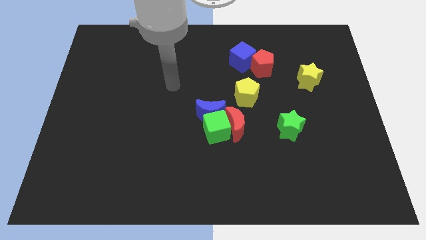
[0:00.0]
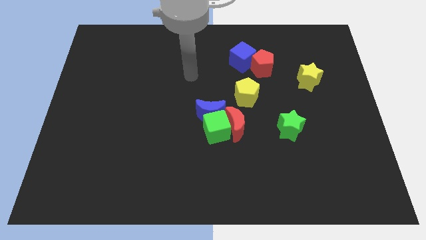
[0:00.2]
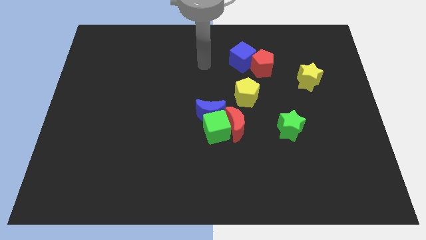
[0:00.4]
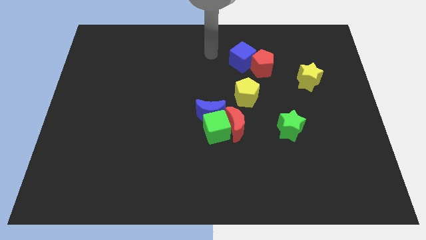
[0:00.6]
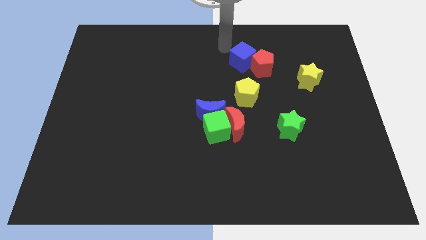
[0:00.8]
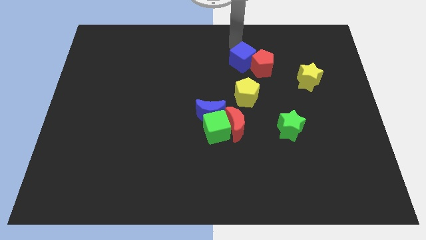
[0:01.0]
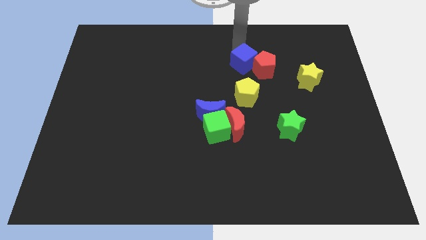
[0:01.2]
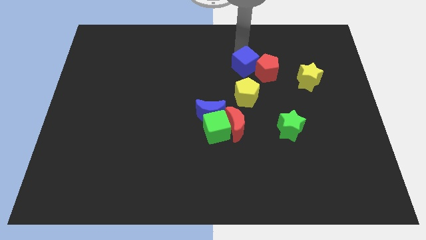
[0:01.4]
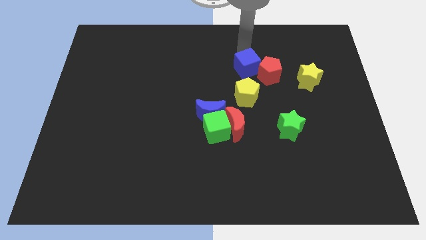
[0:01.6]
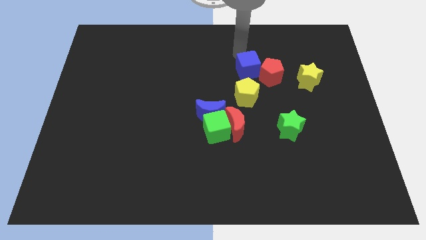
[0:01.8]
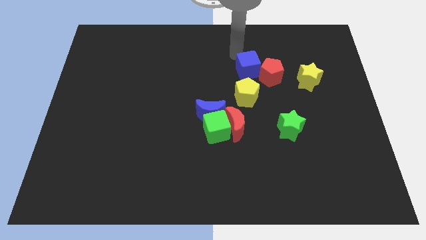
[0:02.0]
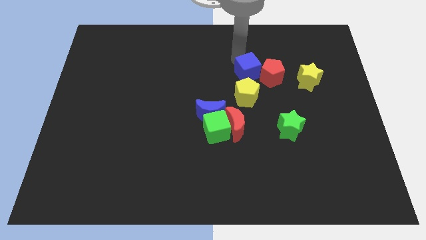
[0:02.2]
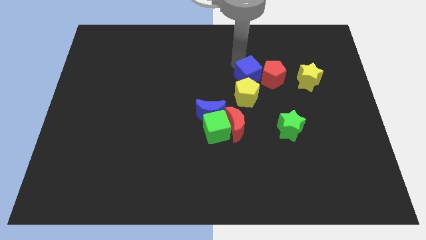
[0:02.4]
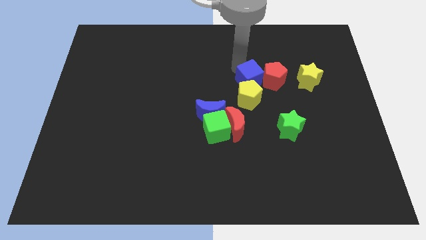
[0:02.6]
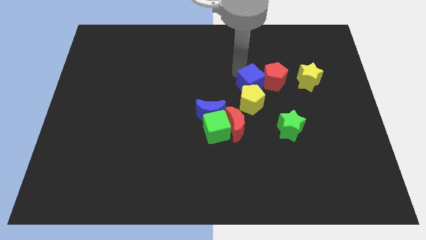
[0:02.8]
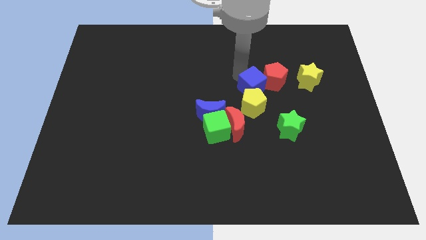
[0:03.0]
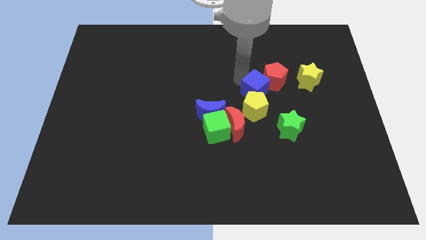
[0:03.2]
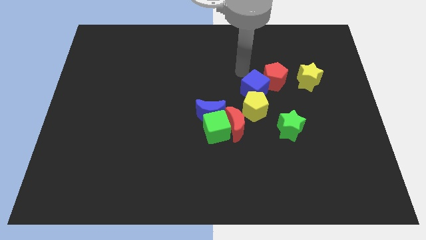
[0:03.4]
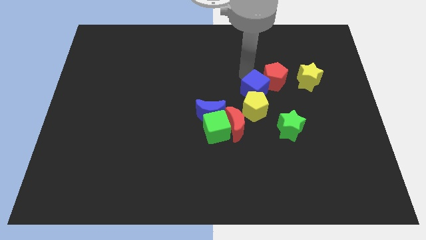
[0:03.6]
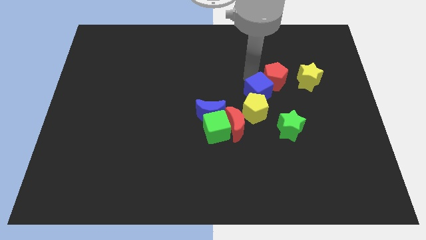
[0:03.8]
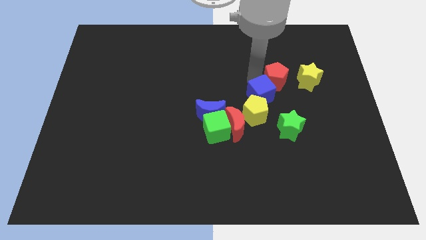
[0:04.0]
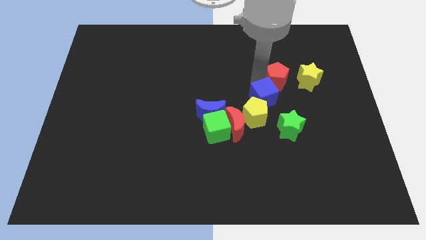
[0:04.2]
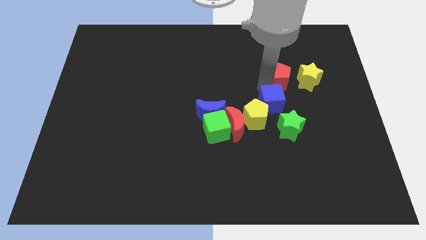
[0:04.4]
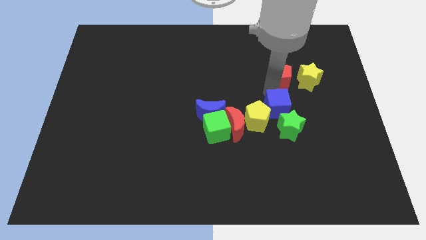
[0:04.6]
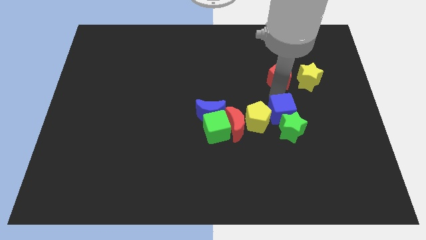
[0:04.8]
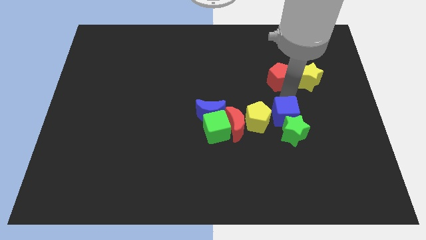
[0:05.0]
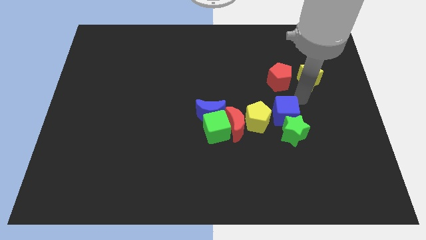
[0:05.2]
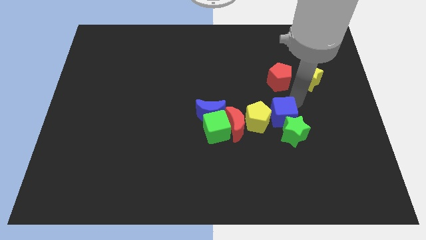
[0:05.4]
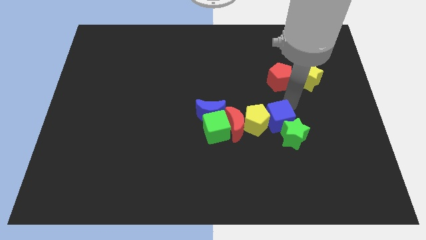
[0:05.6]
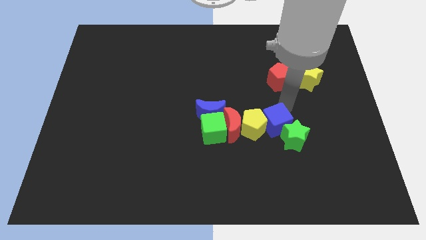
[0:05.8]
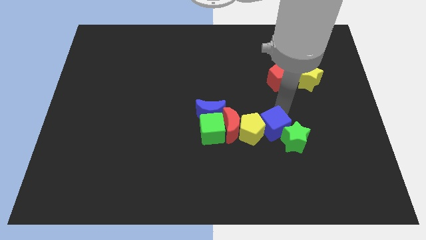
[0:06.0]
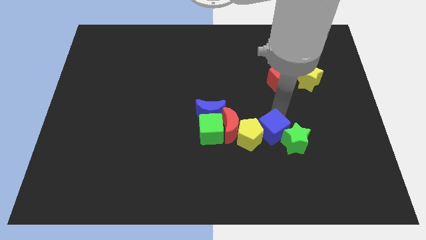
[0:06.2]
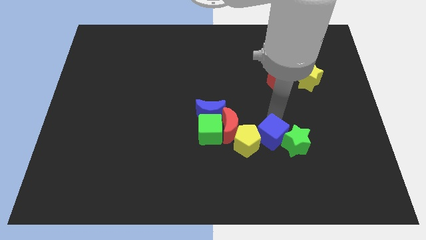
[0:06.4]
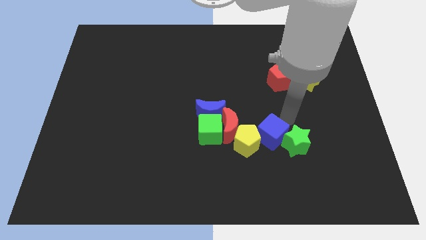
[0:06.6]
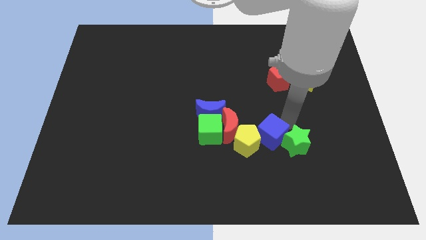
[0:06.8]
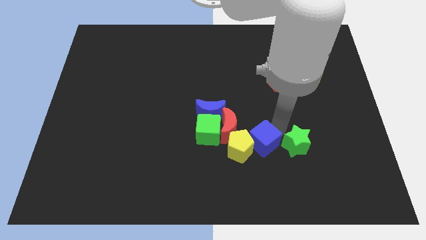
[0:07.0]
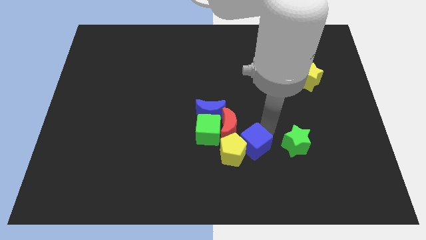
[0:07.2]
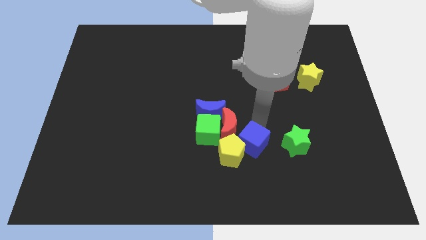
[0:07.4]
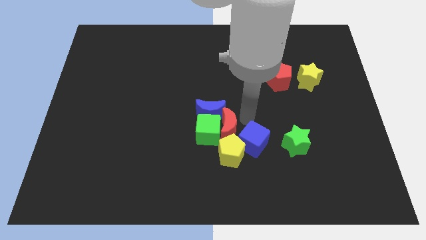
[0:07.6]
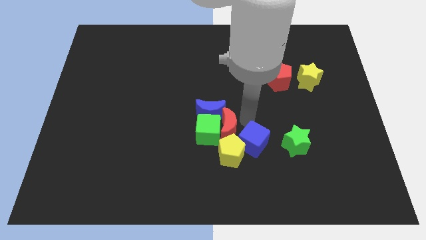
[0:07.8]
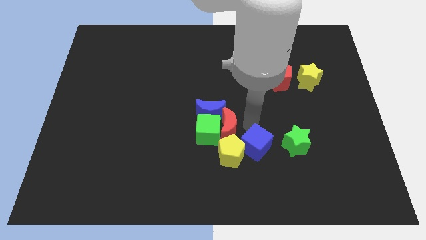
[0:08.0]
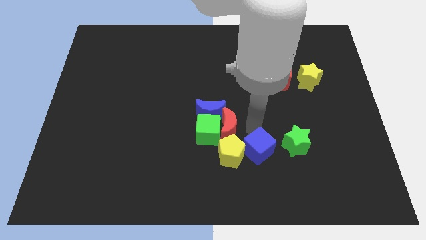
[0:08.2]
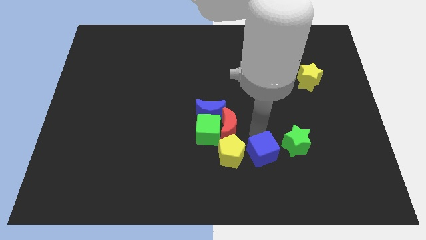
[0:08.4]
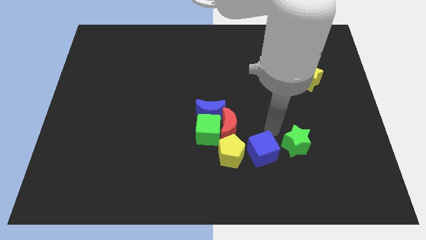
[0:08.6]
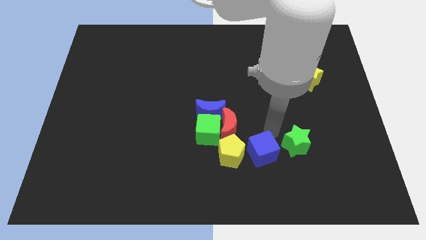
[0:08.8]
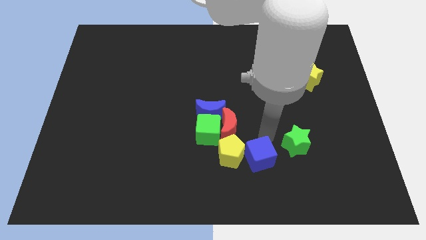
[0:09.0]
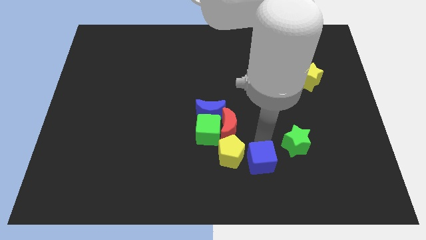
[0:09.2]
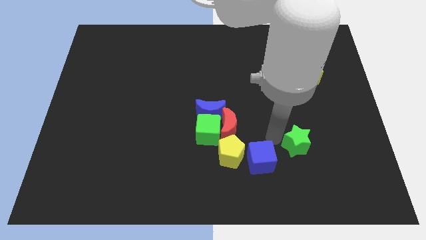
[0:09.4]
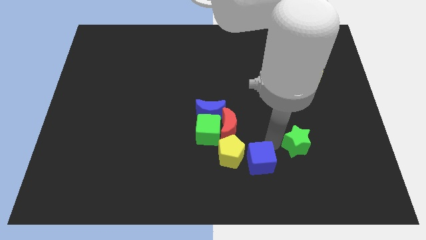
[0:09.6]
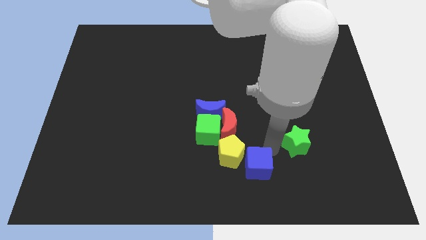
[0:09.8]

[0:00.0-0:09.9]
move the blue cube to the bottom

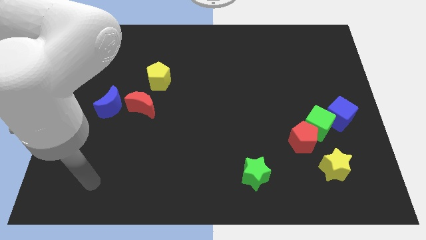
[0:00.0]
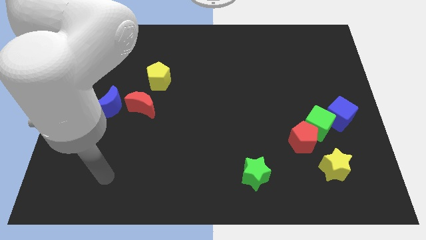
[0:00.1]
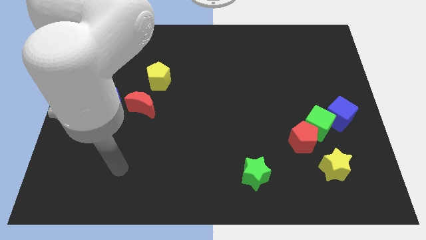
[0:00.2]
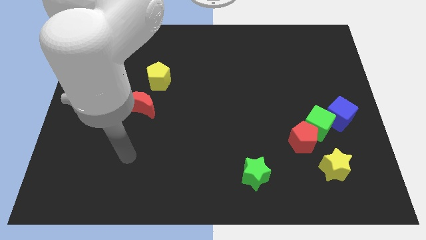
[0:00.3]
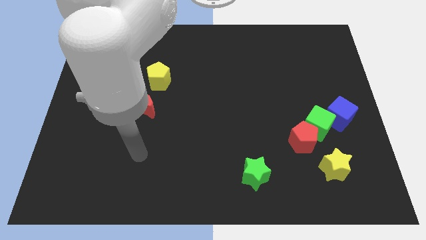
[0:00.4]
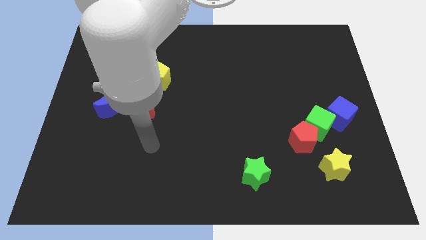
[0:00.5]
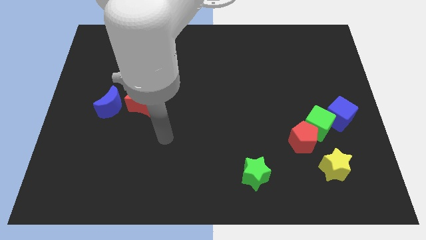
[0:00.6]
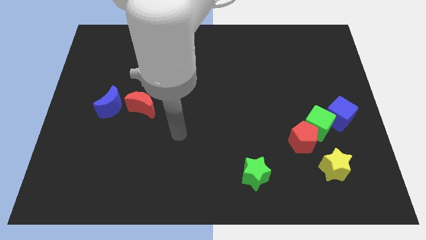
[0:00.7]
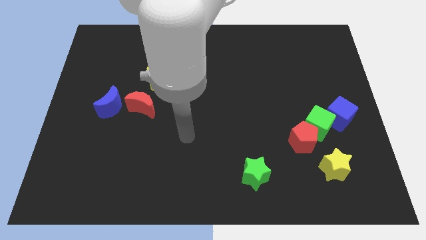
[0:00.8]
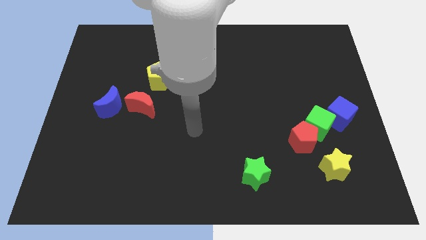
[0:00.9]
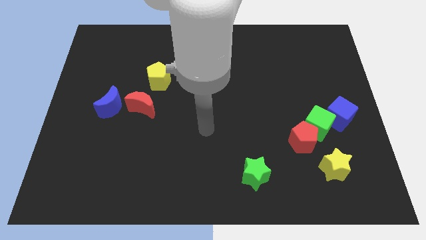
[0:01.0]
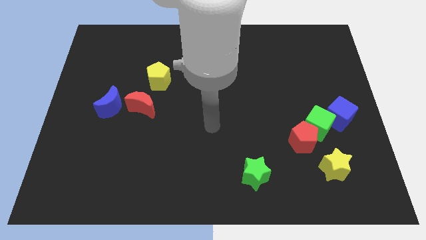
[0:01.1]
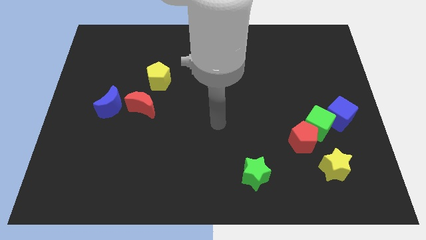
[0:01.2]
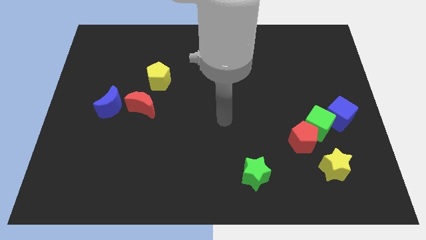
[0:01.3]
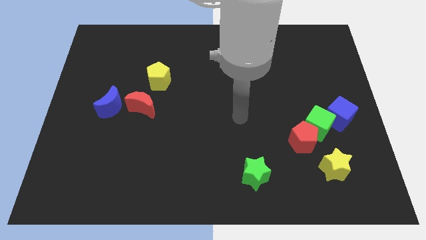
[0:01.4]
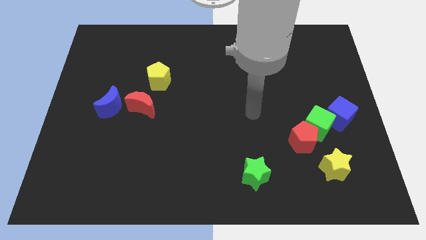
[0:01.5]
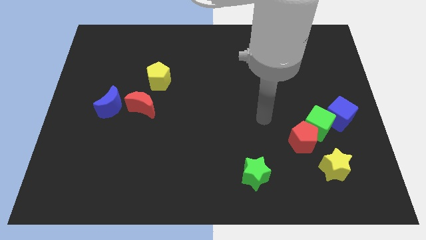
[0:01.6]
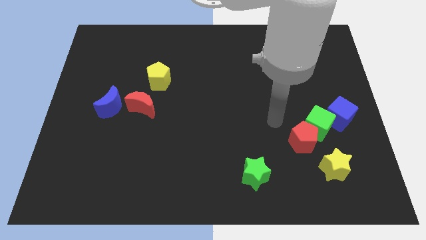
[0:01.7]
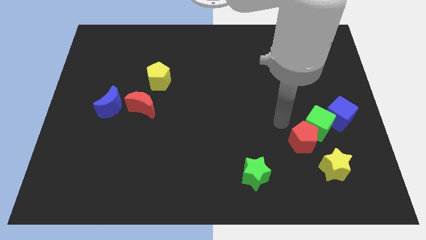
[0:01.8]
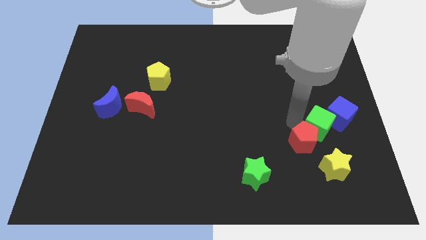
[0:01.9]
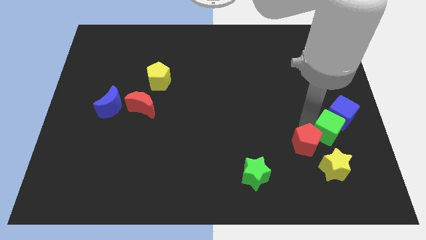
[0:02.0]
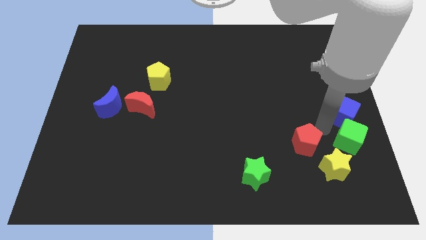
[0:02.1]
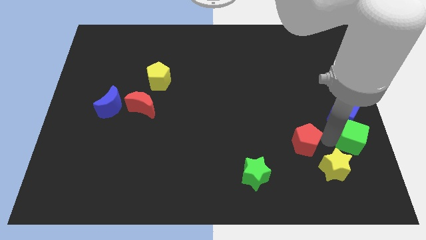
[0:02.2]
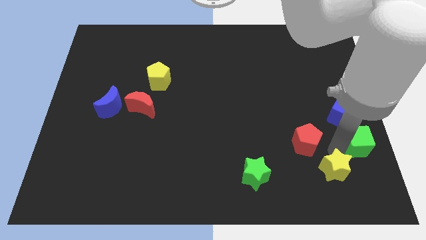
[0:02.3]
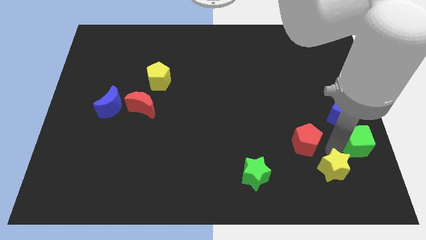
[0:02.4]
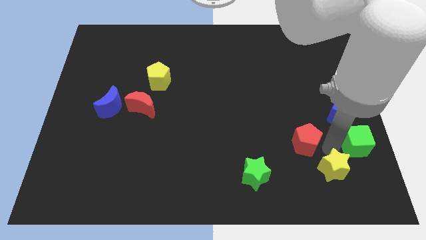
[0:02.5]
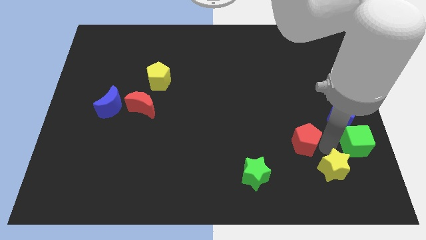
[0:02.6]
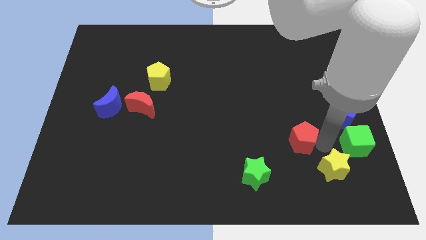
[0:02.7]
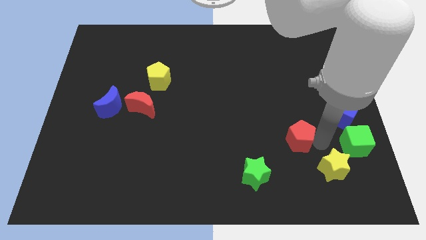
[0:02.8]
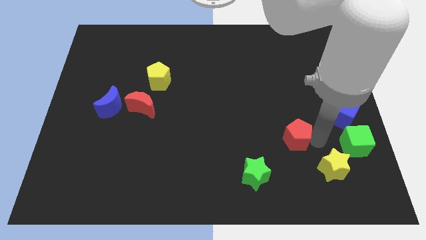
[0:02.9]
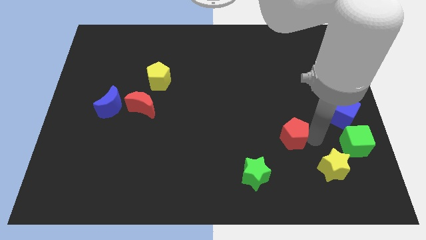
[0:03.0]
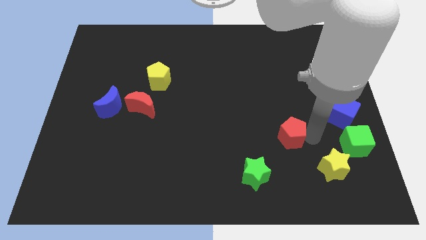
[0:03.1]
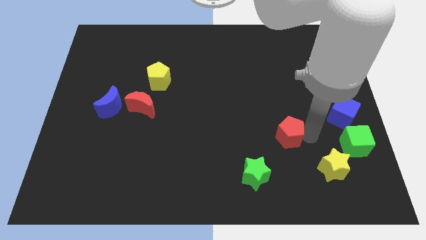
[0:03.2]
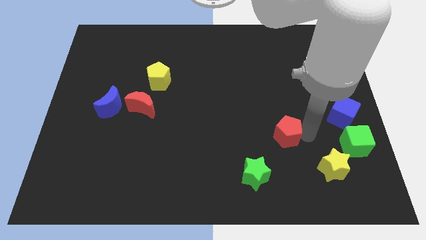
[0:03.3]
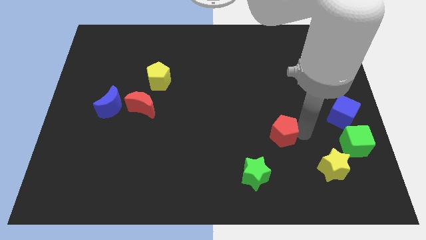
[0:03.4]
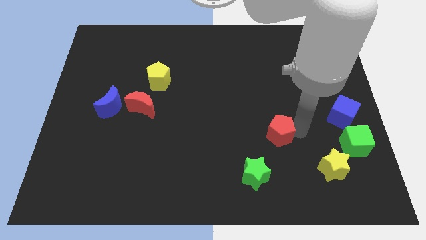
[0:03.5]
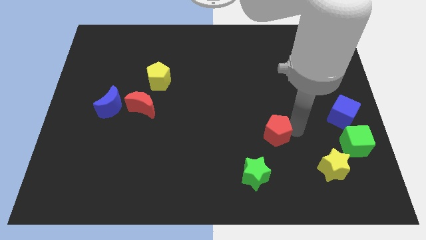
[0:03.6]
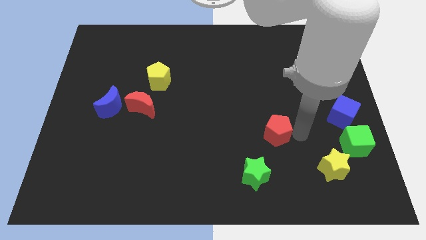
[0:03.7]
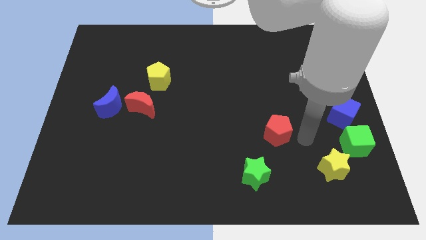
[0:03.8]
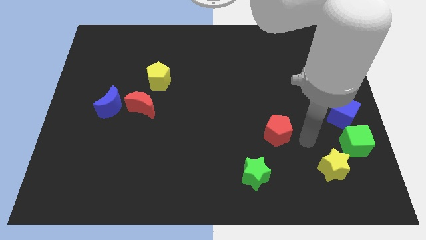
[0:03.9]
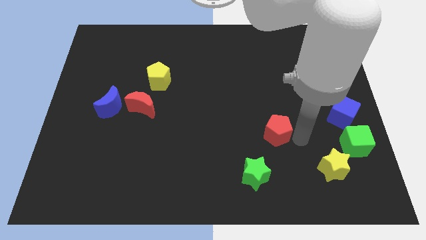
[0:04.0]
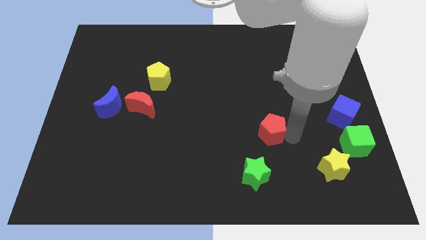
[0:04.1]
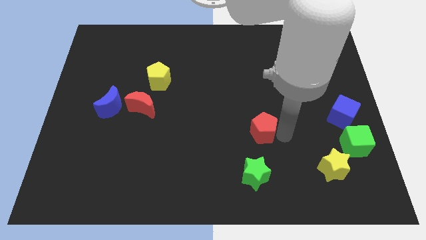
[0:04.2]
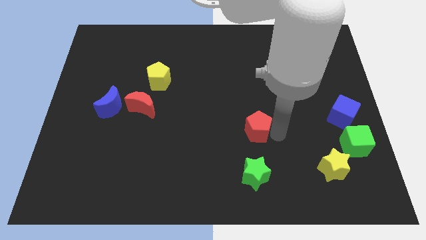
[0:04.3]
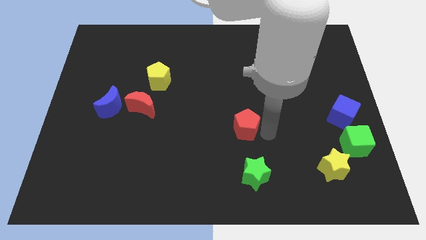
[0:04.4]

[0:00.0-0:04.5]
push the red pentagon to the center
